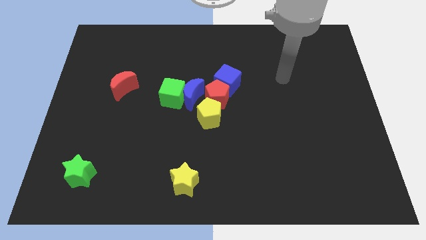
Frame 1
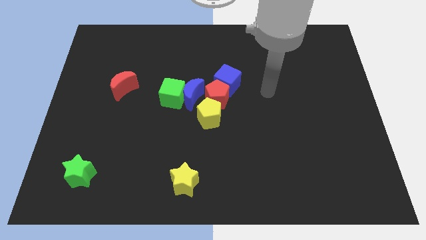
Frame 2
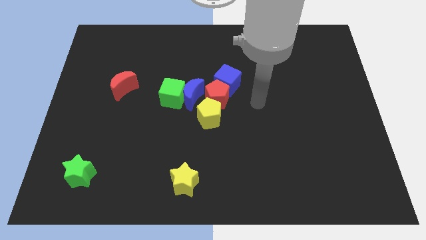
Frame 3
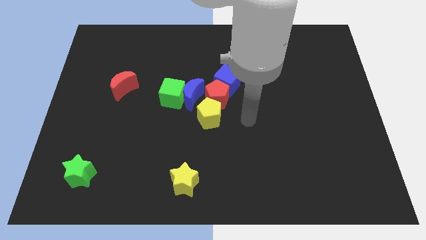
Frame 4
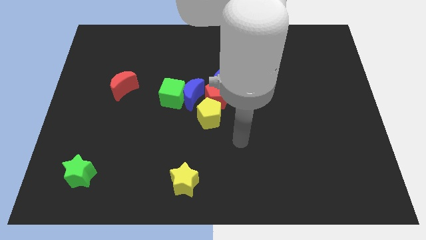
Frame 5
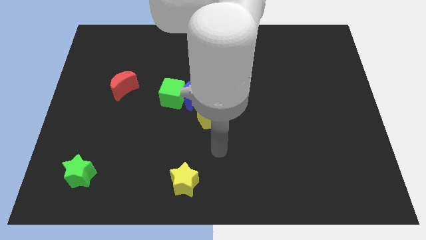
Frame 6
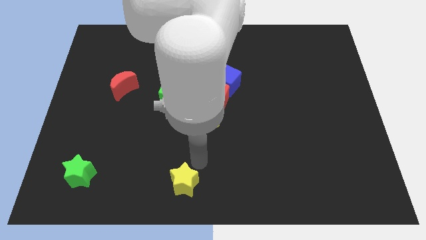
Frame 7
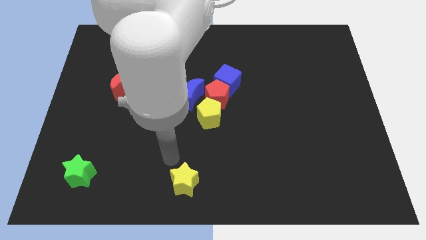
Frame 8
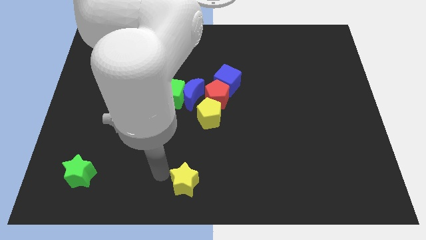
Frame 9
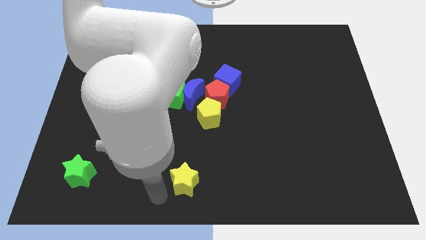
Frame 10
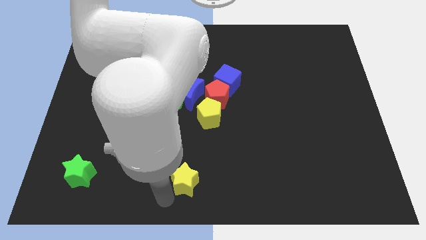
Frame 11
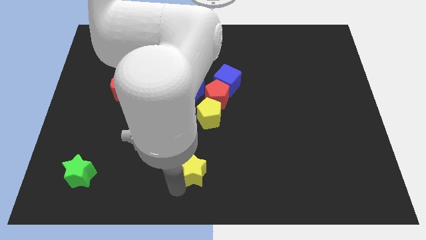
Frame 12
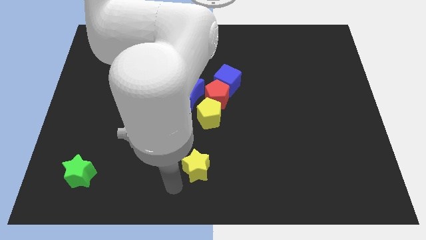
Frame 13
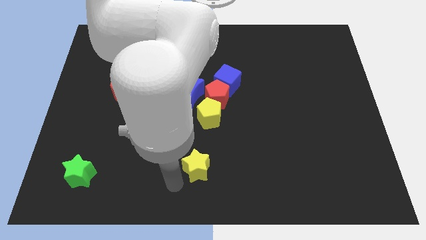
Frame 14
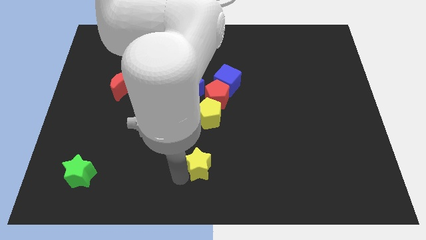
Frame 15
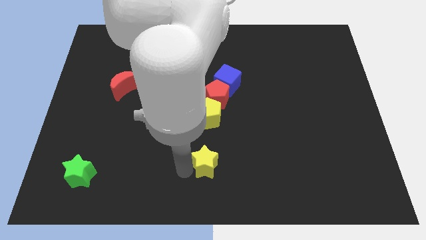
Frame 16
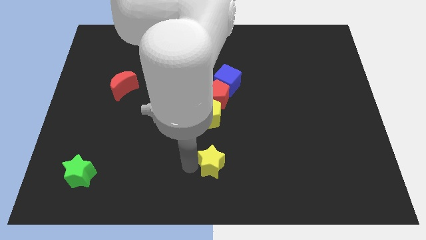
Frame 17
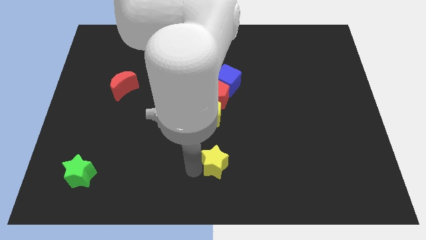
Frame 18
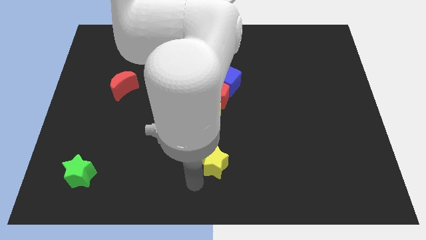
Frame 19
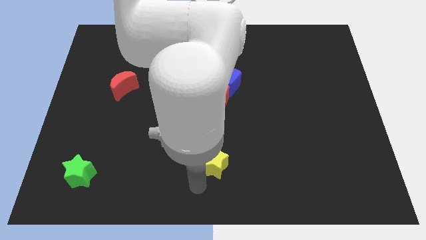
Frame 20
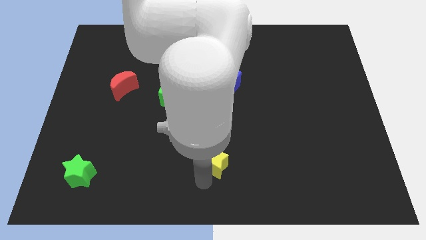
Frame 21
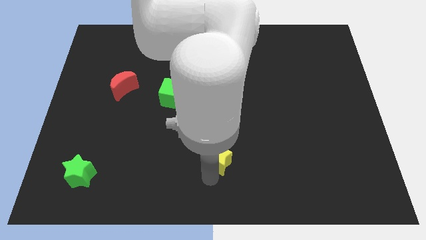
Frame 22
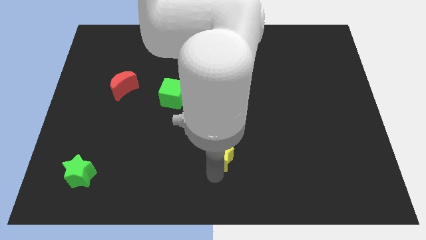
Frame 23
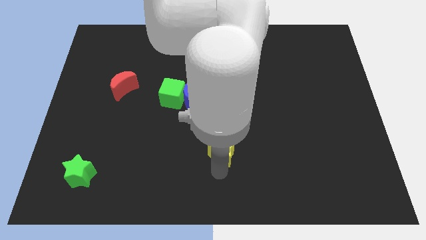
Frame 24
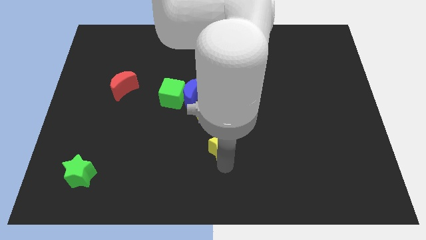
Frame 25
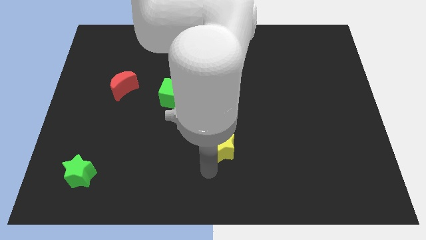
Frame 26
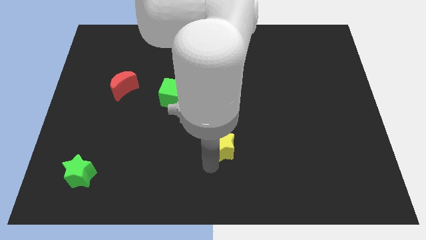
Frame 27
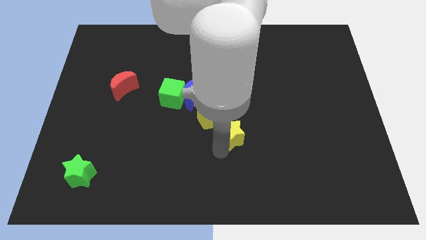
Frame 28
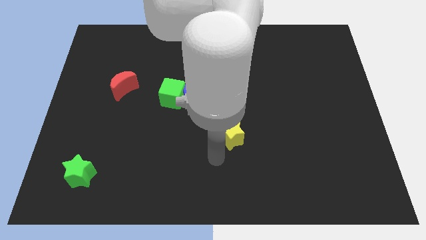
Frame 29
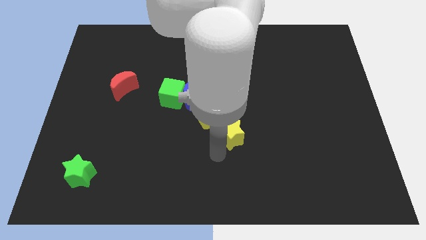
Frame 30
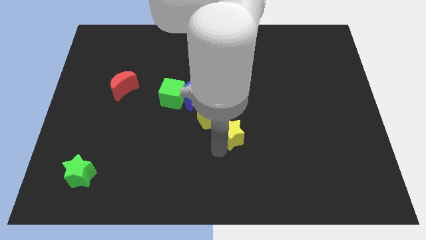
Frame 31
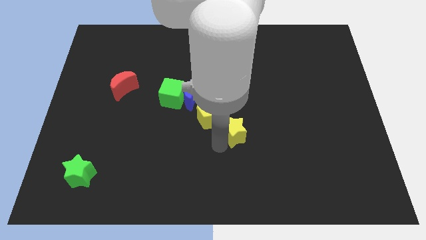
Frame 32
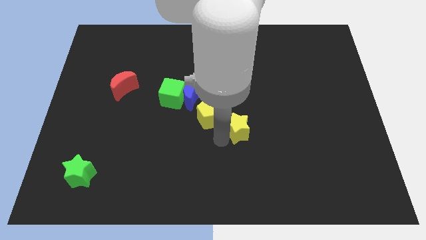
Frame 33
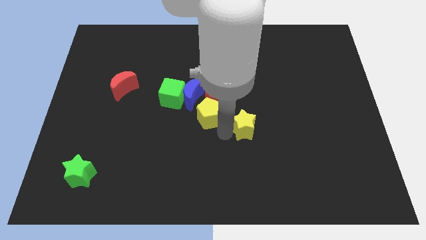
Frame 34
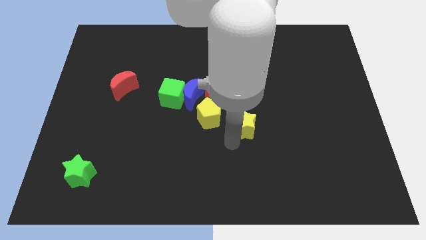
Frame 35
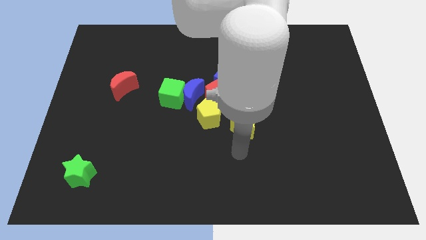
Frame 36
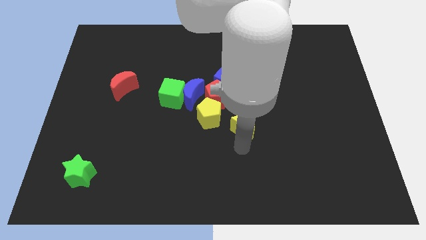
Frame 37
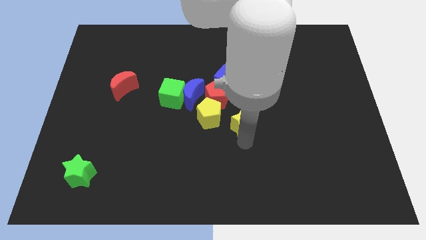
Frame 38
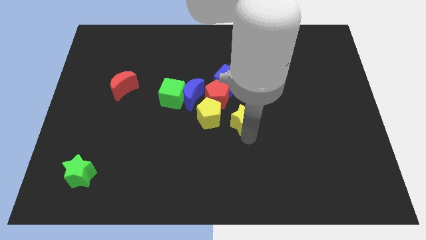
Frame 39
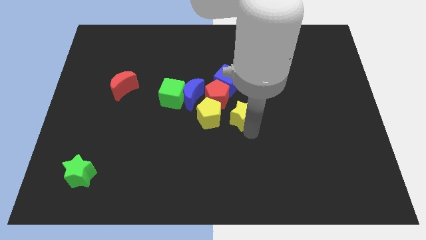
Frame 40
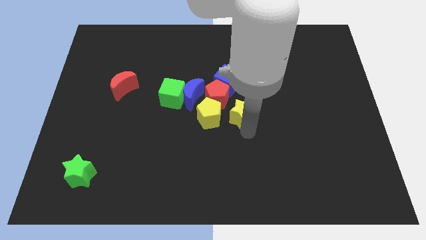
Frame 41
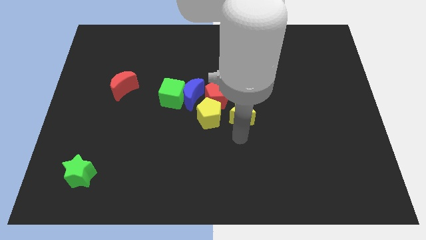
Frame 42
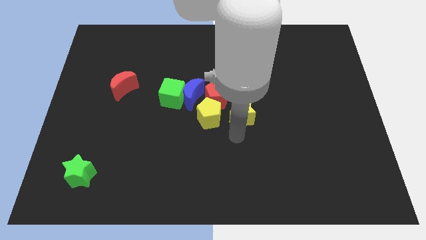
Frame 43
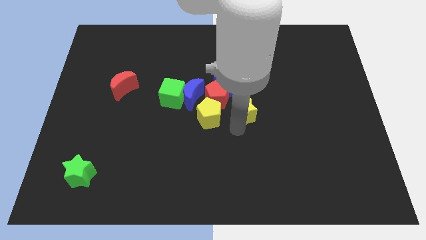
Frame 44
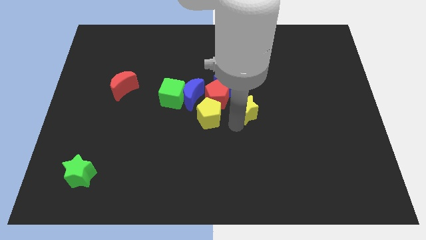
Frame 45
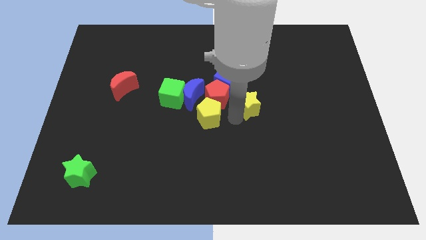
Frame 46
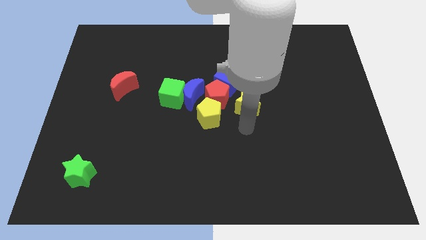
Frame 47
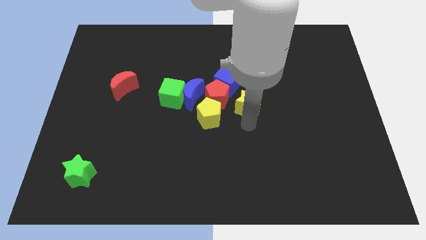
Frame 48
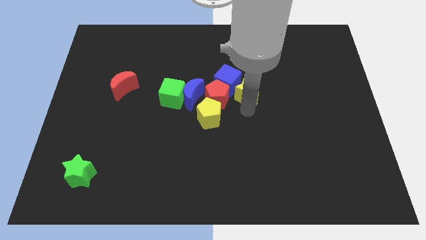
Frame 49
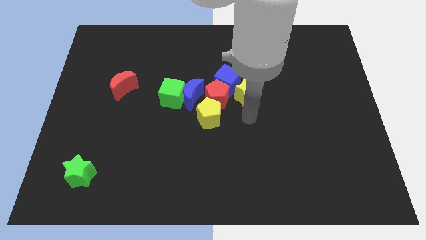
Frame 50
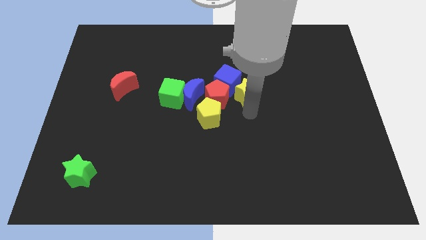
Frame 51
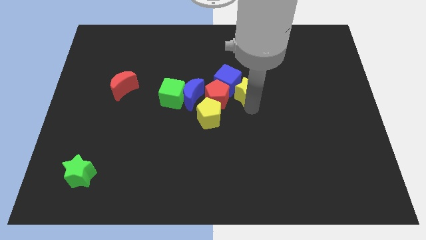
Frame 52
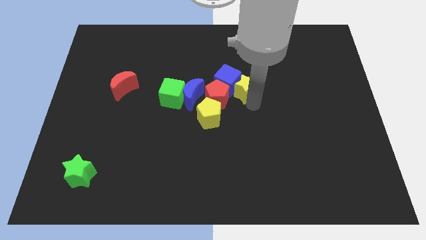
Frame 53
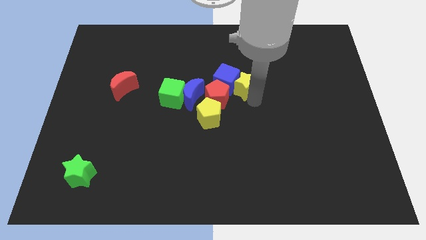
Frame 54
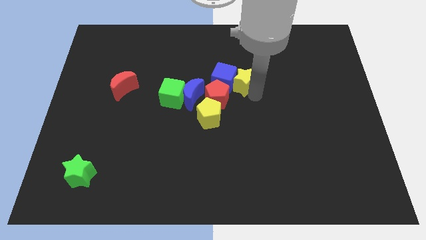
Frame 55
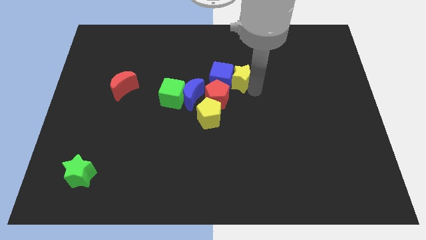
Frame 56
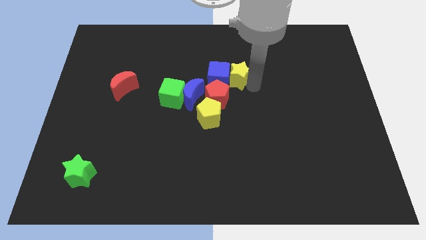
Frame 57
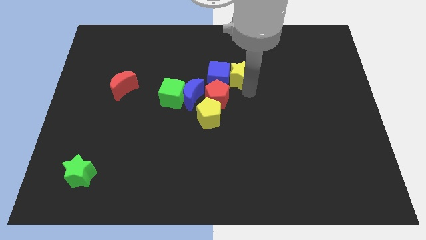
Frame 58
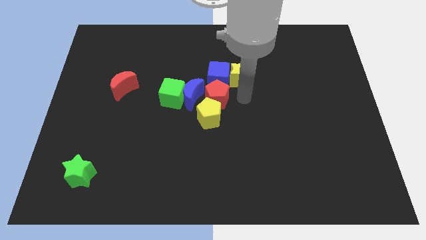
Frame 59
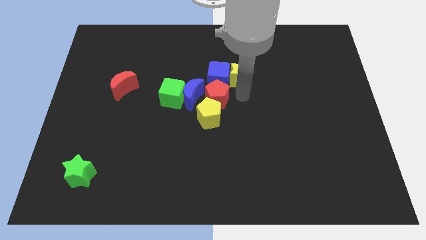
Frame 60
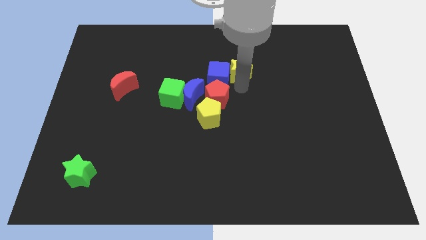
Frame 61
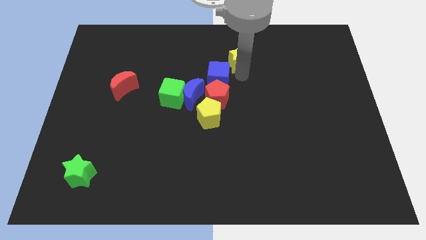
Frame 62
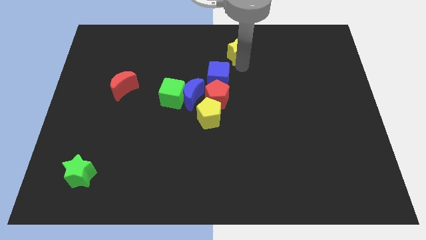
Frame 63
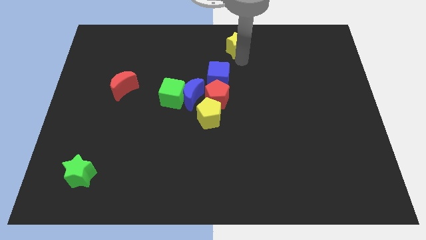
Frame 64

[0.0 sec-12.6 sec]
push the yellow star to the towards your base

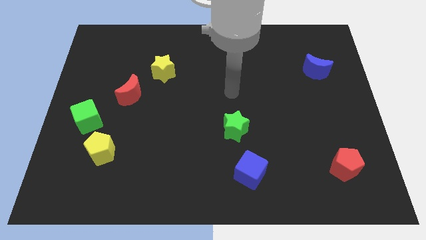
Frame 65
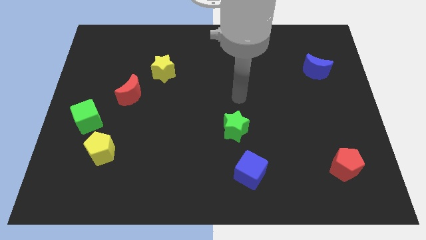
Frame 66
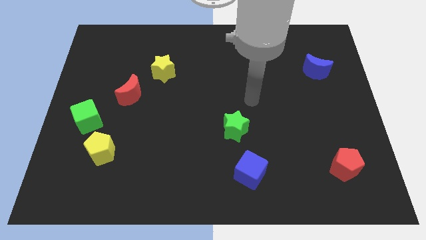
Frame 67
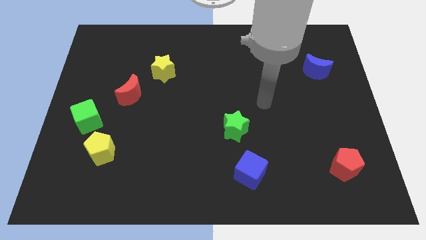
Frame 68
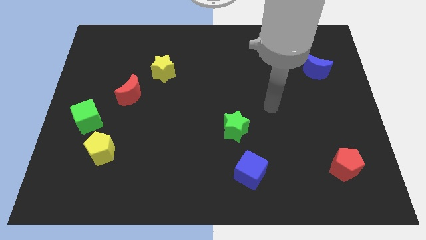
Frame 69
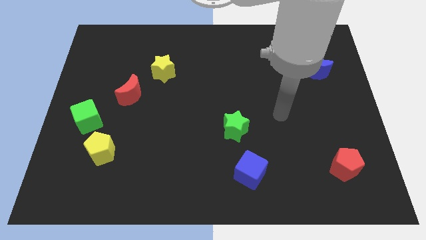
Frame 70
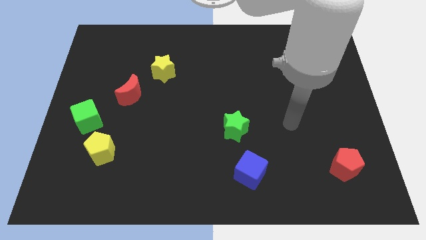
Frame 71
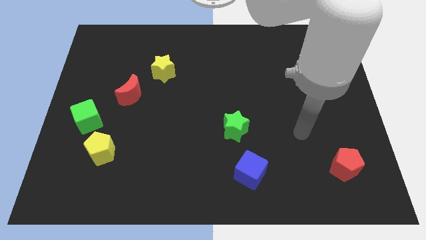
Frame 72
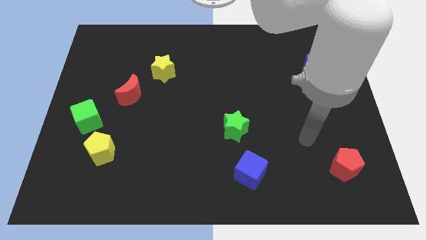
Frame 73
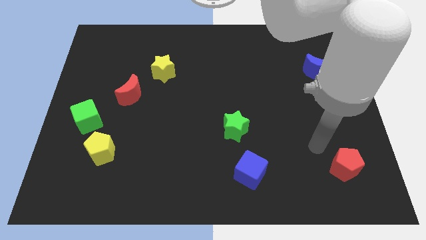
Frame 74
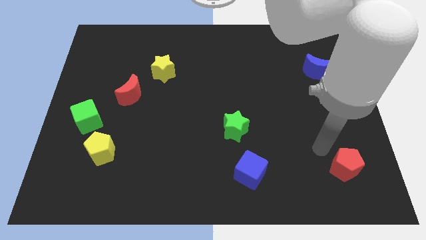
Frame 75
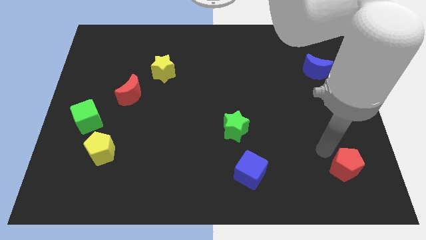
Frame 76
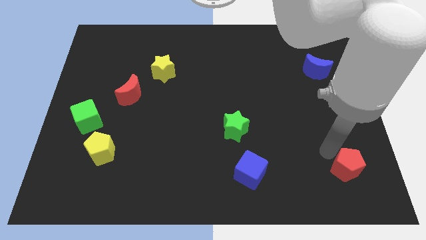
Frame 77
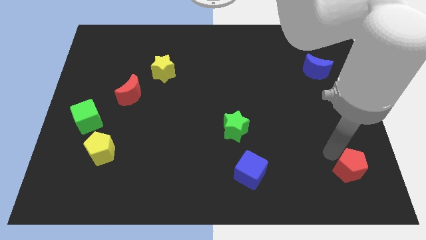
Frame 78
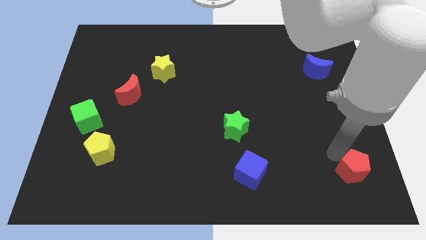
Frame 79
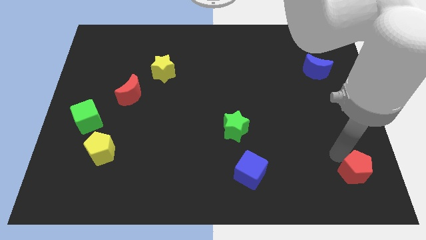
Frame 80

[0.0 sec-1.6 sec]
push the red pentagon to the bottom right corner
